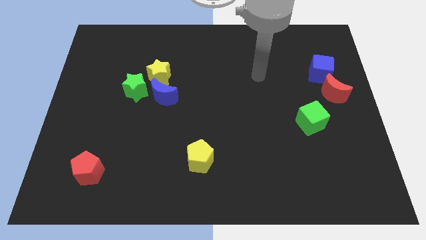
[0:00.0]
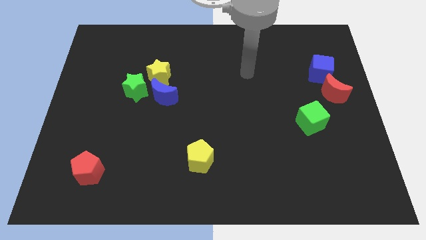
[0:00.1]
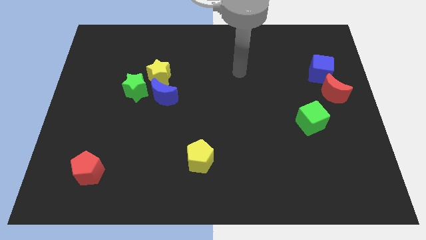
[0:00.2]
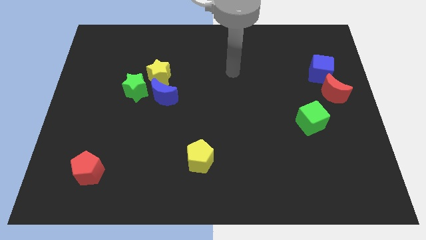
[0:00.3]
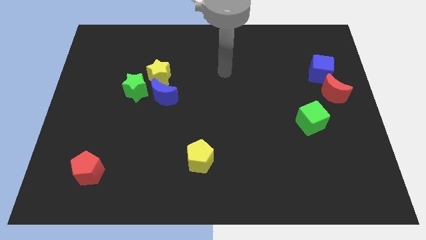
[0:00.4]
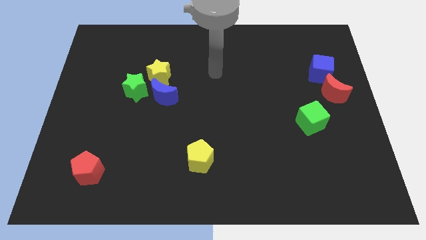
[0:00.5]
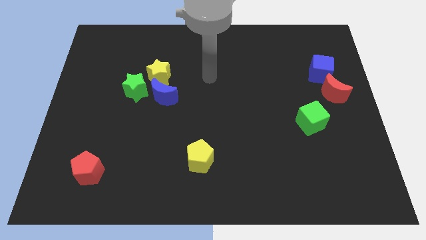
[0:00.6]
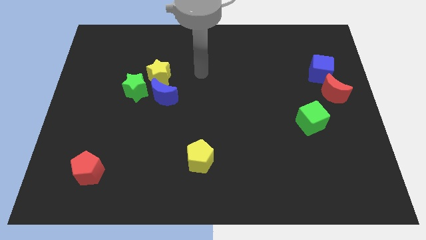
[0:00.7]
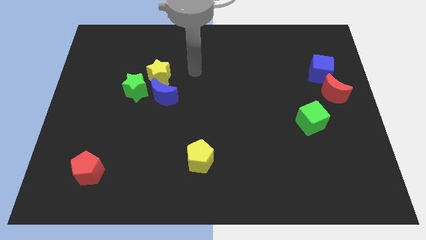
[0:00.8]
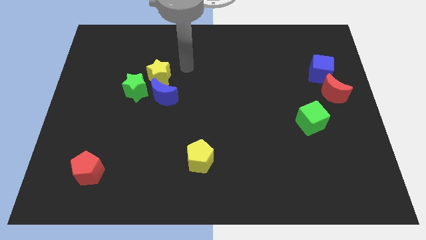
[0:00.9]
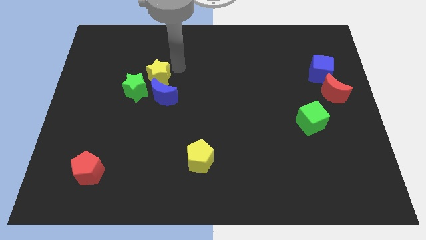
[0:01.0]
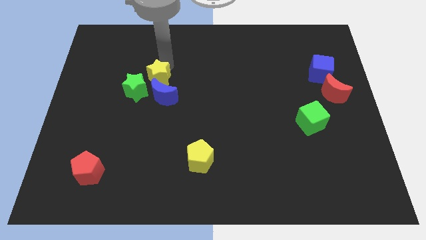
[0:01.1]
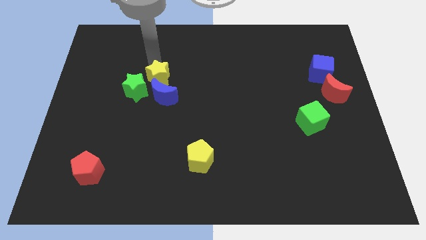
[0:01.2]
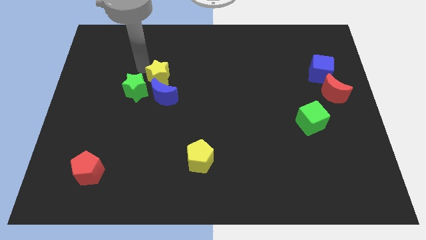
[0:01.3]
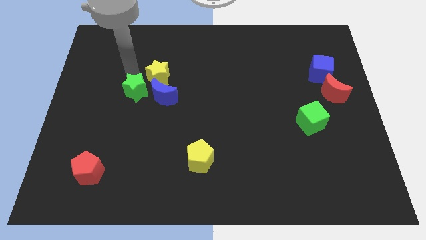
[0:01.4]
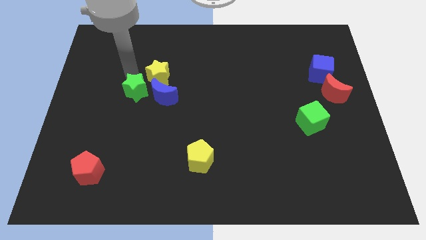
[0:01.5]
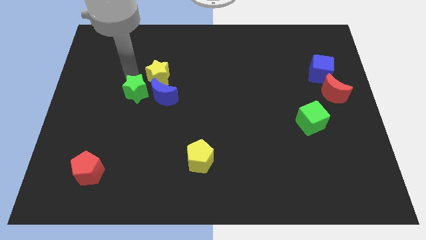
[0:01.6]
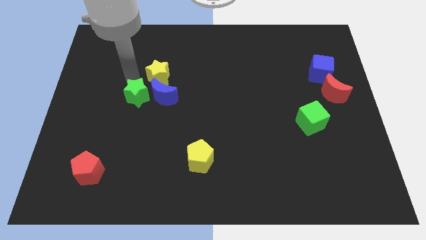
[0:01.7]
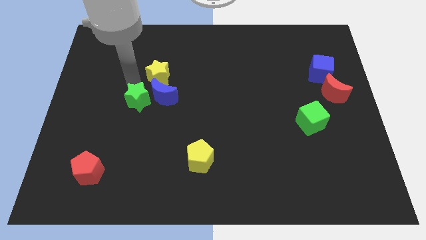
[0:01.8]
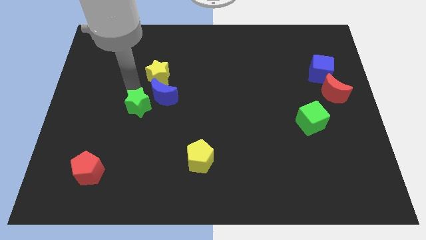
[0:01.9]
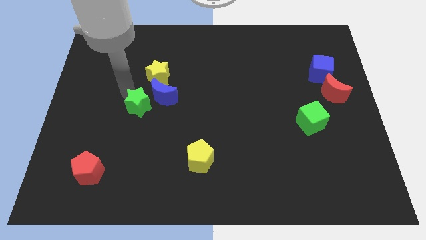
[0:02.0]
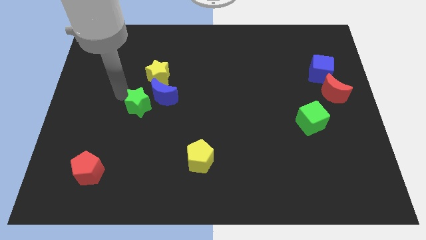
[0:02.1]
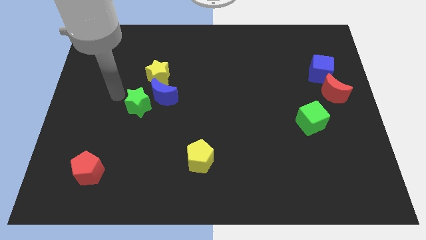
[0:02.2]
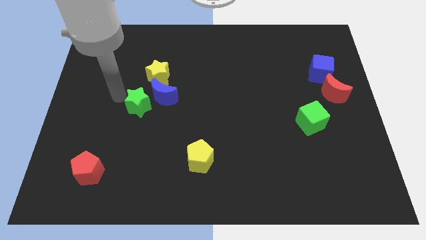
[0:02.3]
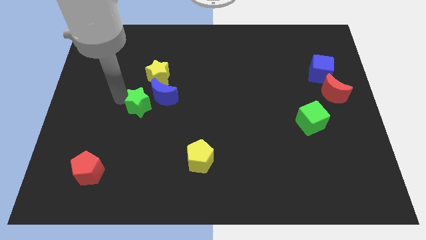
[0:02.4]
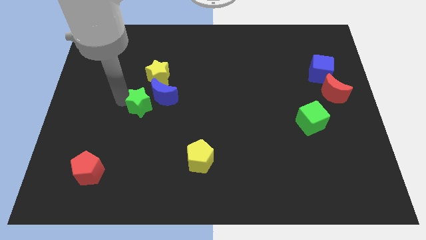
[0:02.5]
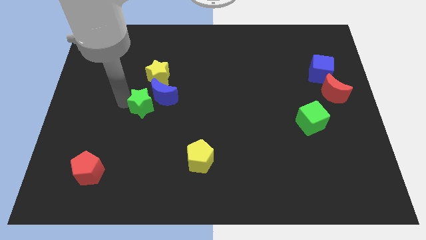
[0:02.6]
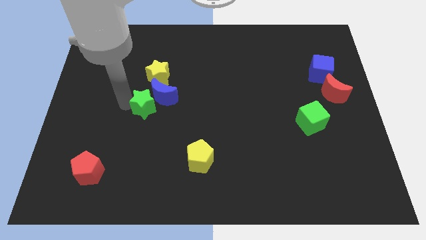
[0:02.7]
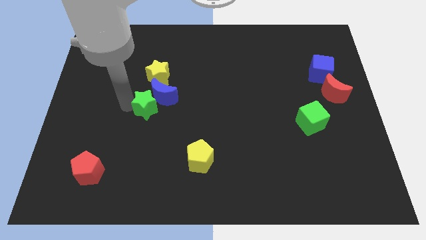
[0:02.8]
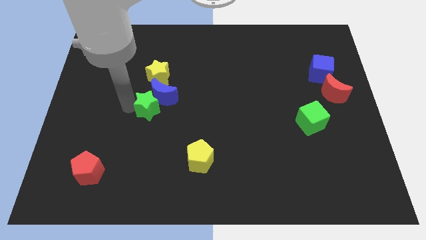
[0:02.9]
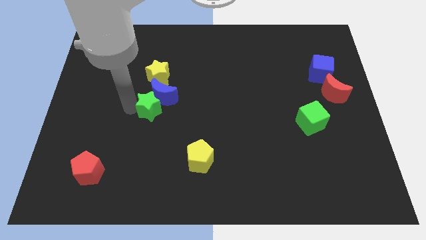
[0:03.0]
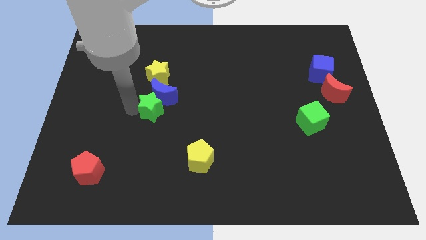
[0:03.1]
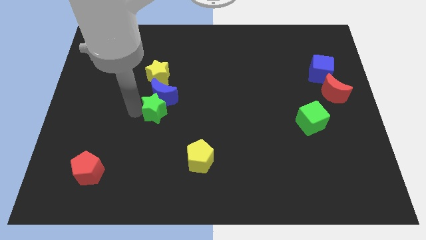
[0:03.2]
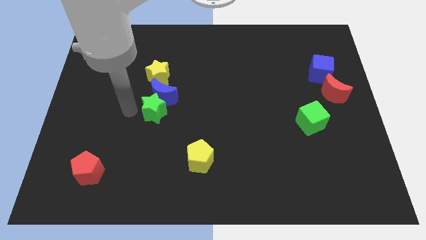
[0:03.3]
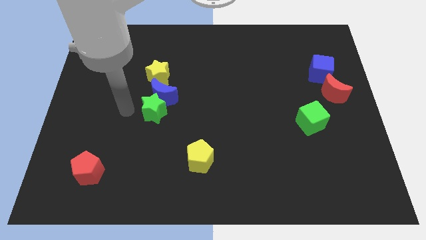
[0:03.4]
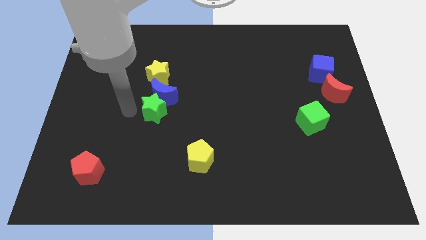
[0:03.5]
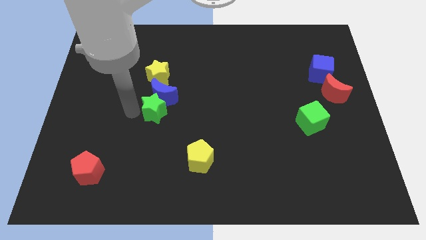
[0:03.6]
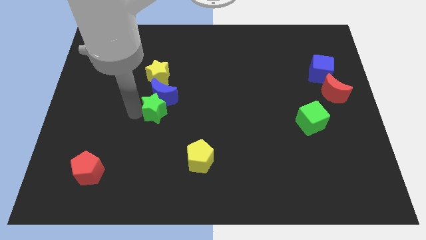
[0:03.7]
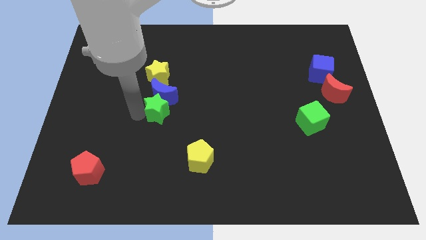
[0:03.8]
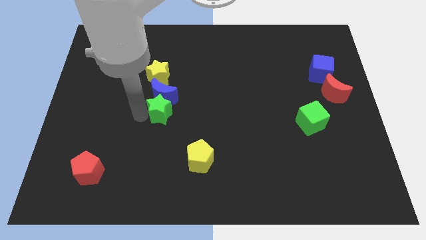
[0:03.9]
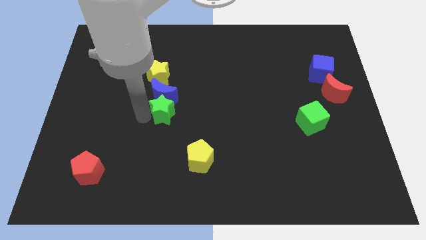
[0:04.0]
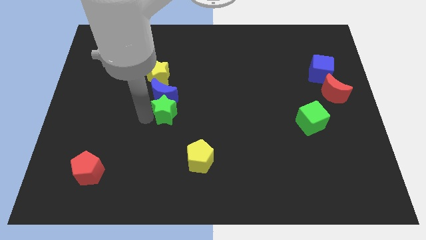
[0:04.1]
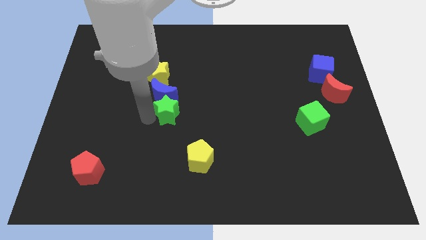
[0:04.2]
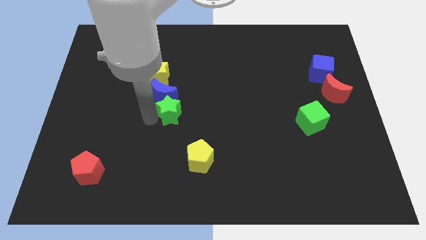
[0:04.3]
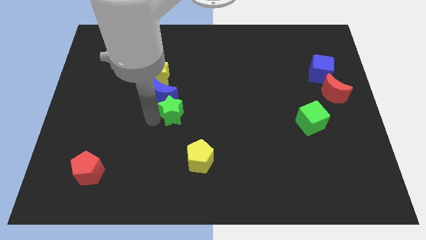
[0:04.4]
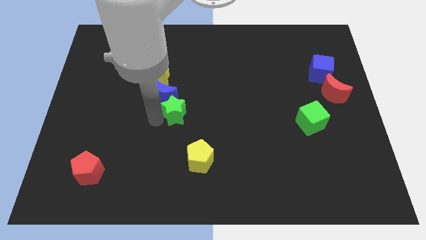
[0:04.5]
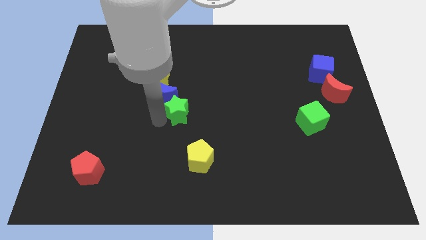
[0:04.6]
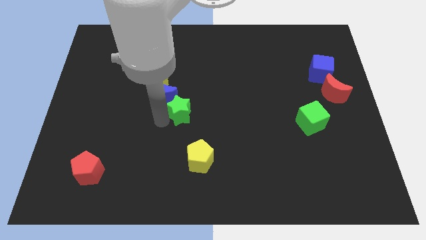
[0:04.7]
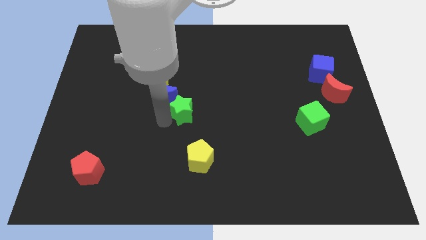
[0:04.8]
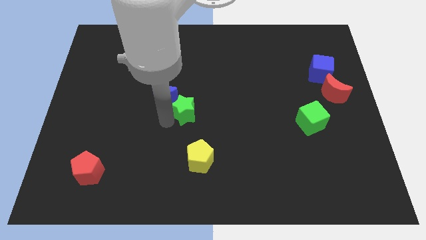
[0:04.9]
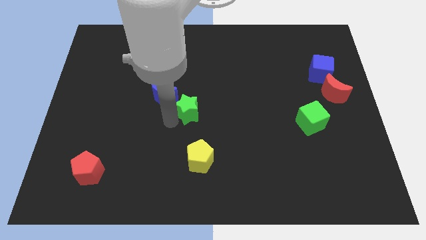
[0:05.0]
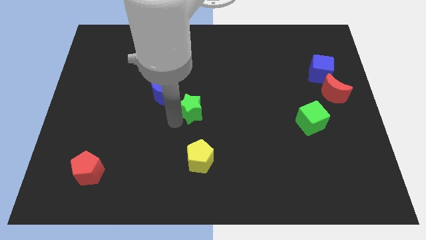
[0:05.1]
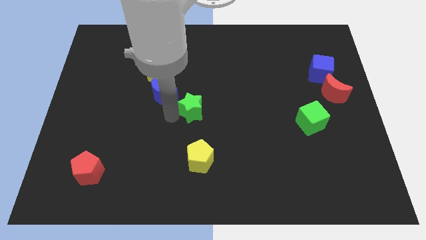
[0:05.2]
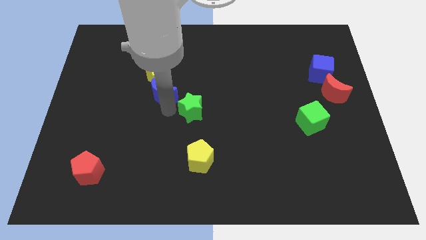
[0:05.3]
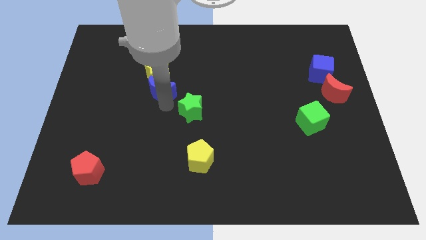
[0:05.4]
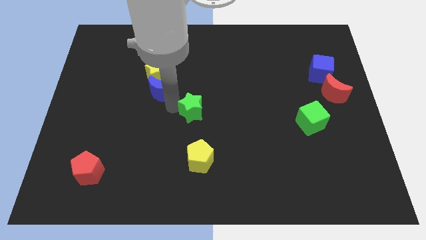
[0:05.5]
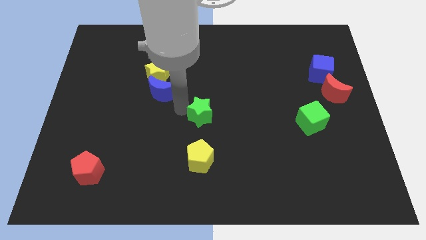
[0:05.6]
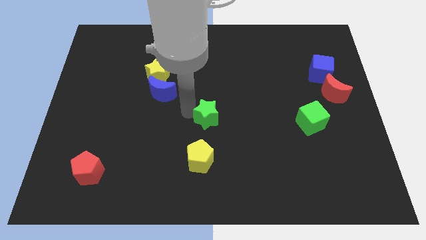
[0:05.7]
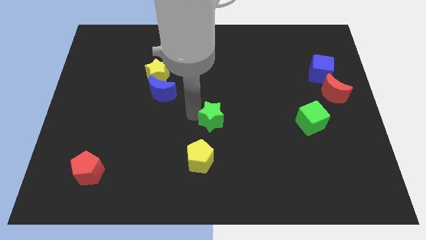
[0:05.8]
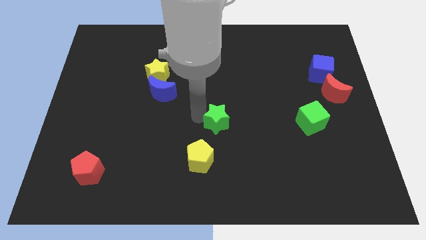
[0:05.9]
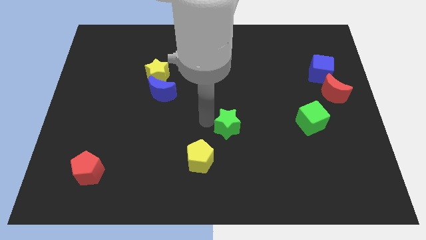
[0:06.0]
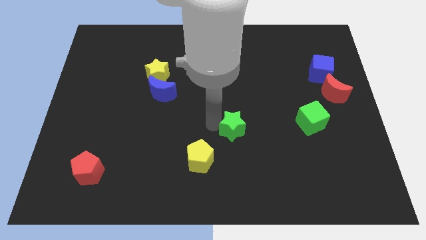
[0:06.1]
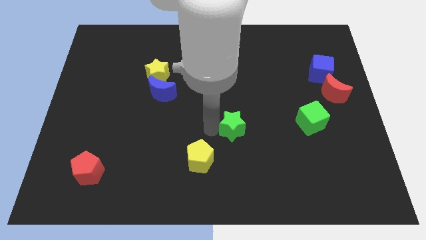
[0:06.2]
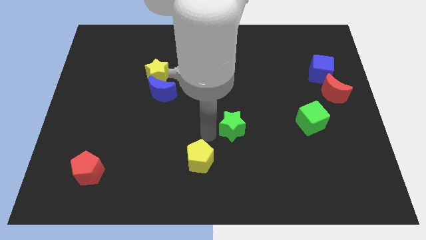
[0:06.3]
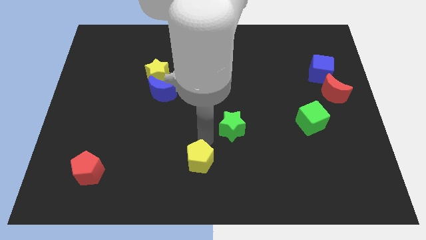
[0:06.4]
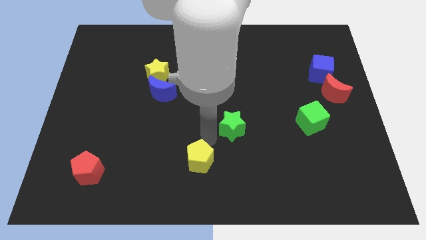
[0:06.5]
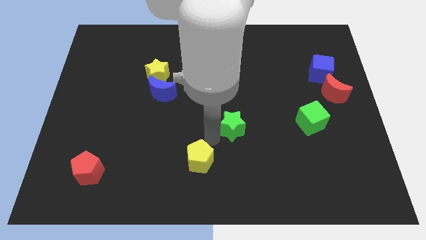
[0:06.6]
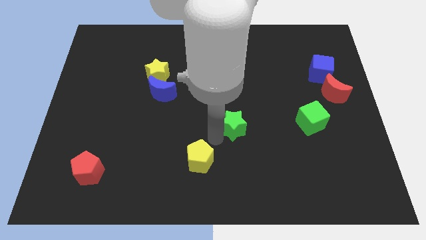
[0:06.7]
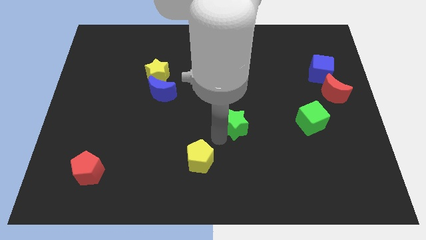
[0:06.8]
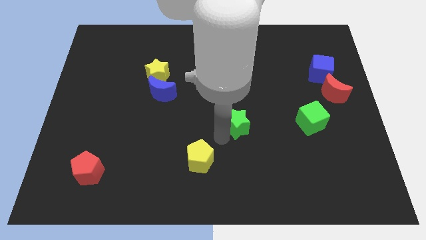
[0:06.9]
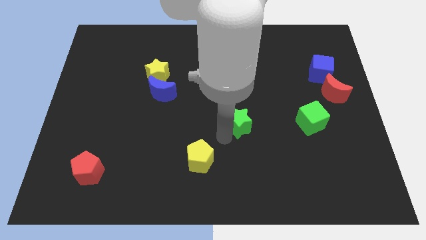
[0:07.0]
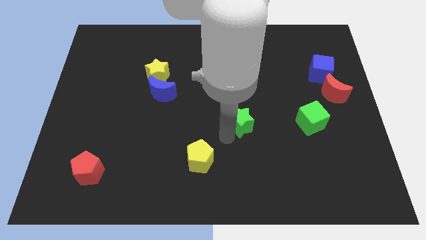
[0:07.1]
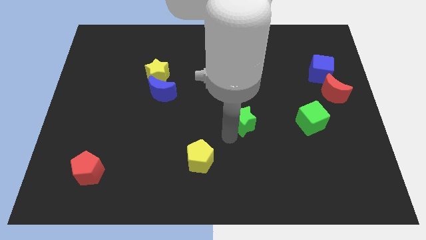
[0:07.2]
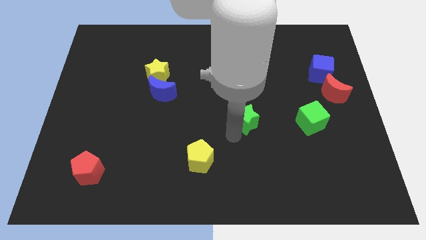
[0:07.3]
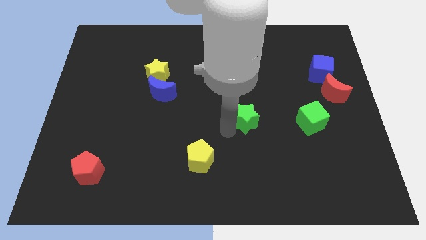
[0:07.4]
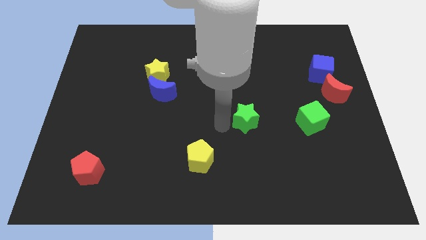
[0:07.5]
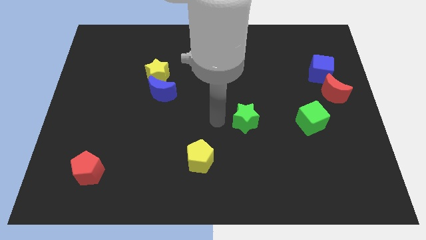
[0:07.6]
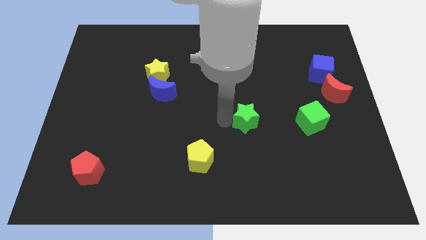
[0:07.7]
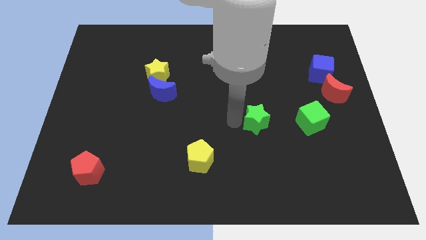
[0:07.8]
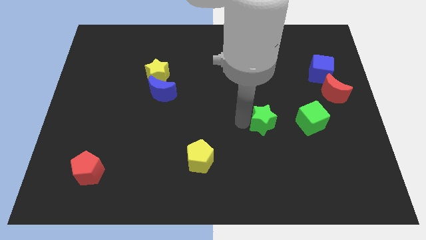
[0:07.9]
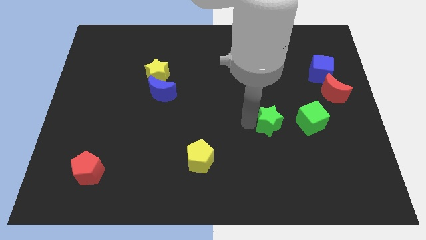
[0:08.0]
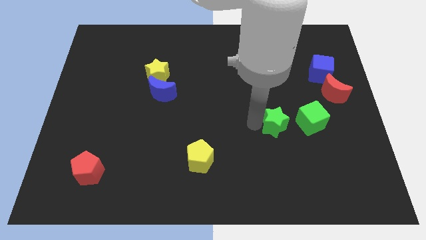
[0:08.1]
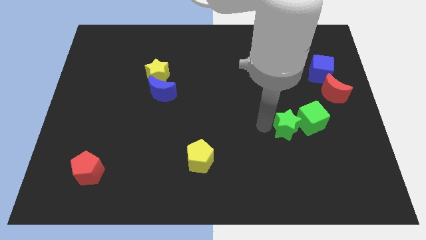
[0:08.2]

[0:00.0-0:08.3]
put the green star to the green cube
